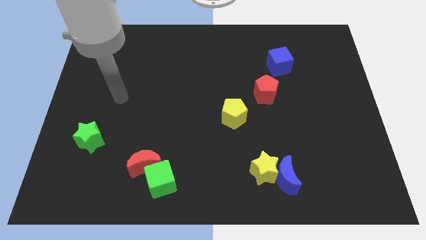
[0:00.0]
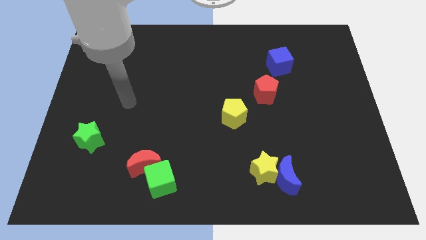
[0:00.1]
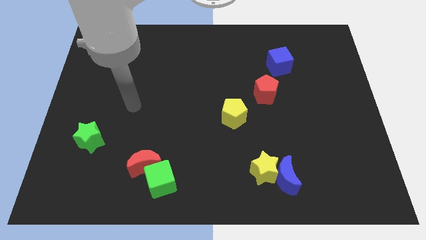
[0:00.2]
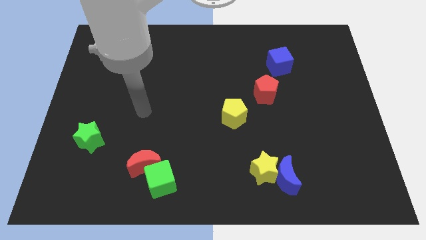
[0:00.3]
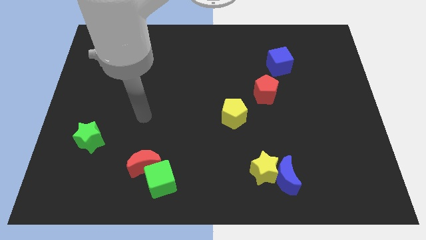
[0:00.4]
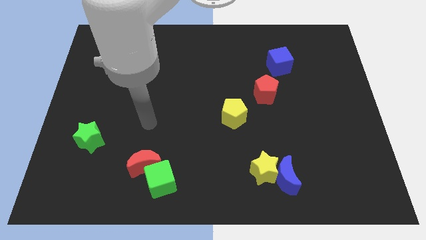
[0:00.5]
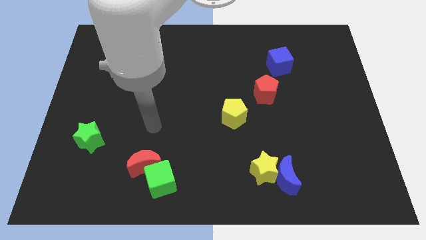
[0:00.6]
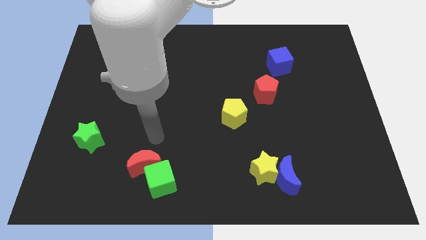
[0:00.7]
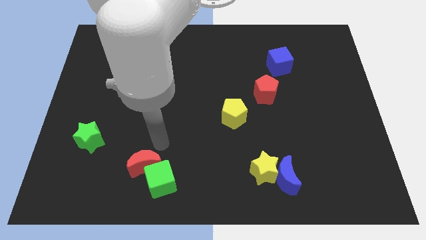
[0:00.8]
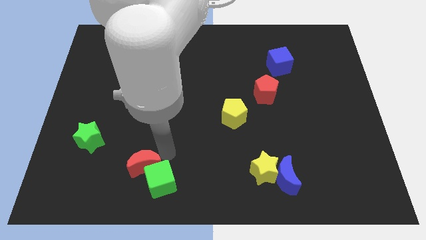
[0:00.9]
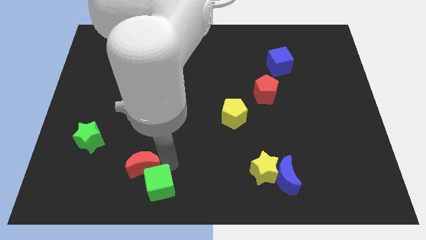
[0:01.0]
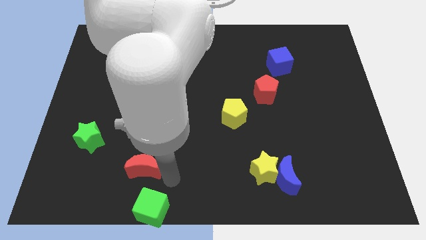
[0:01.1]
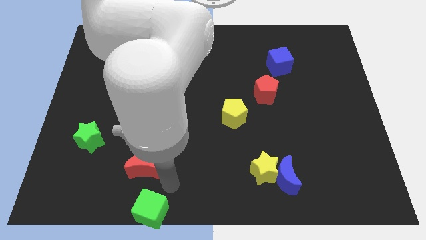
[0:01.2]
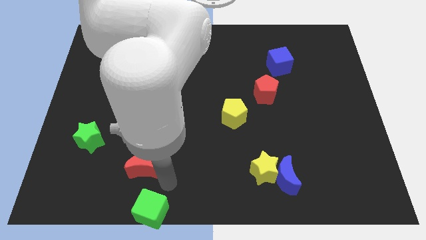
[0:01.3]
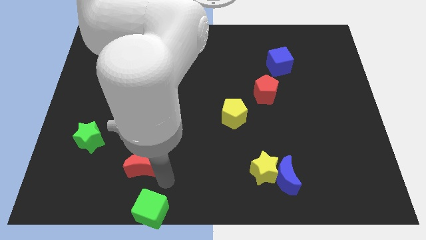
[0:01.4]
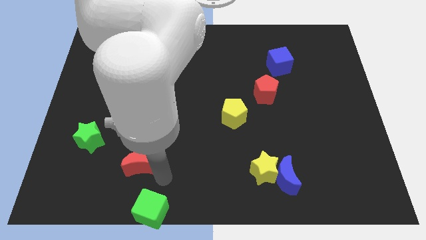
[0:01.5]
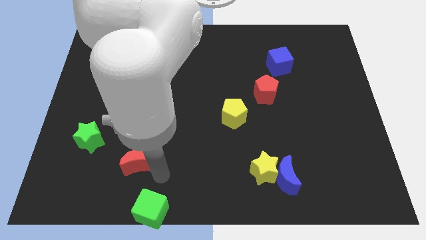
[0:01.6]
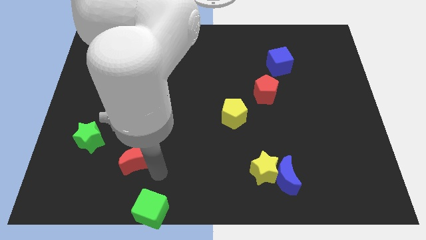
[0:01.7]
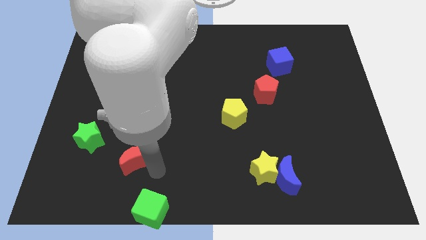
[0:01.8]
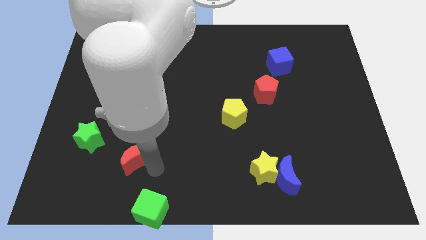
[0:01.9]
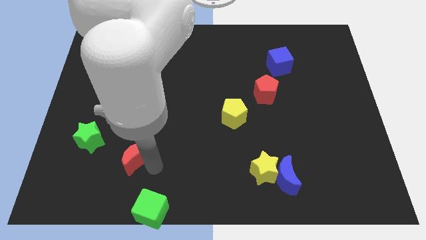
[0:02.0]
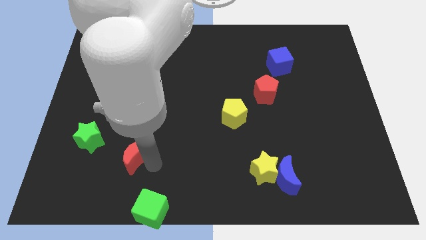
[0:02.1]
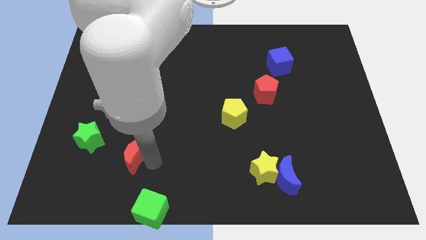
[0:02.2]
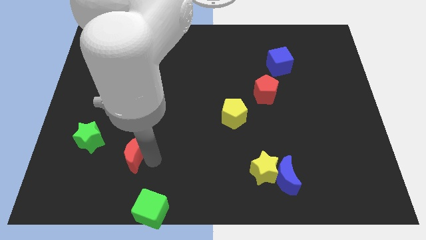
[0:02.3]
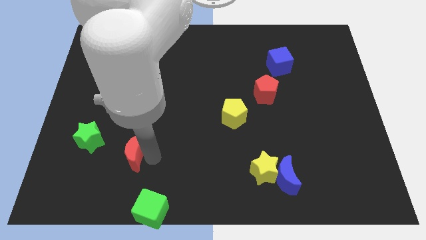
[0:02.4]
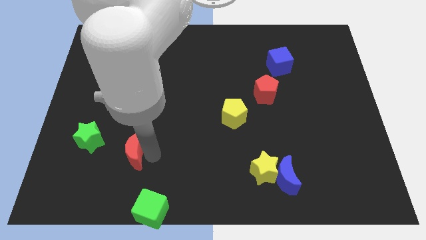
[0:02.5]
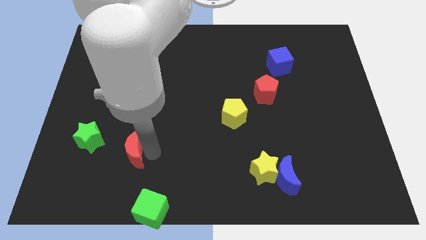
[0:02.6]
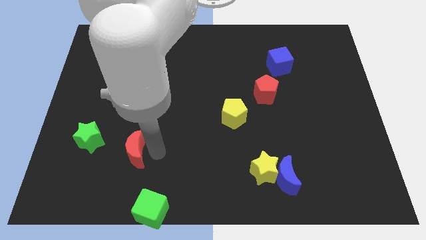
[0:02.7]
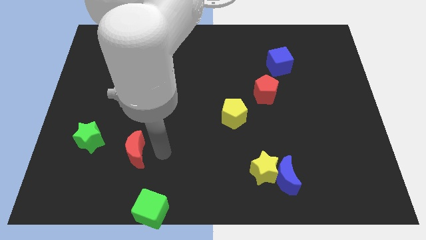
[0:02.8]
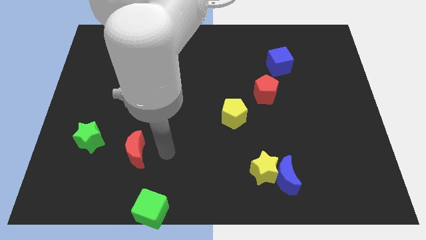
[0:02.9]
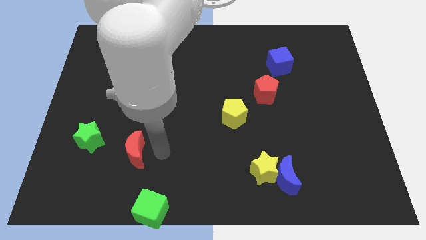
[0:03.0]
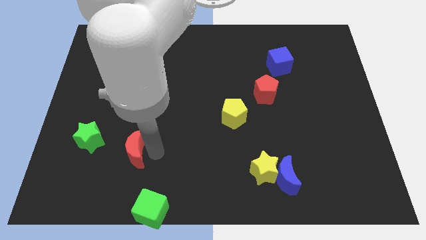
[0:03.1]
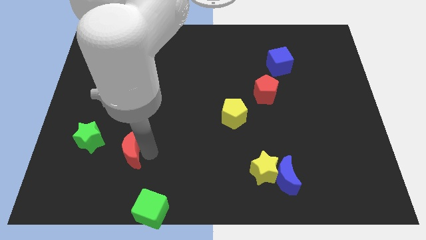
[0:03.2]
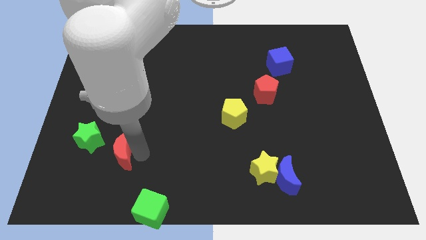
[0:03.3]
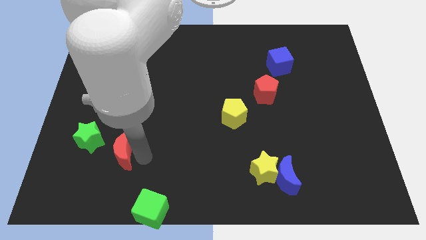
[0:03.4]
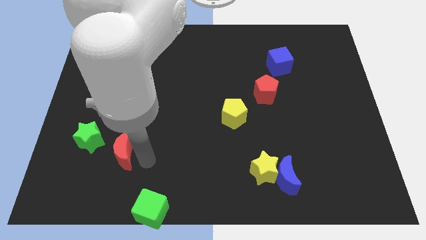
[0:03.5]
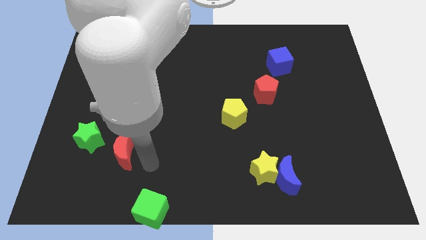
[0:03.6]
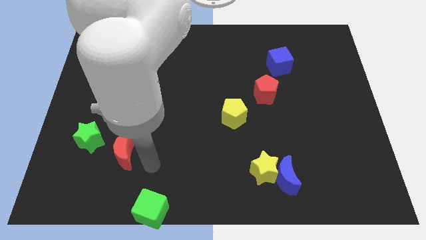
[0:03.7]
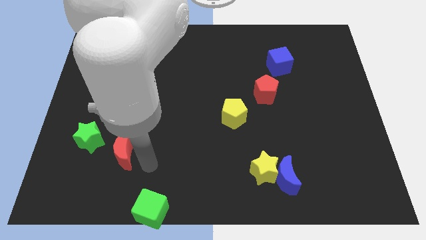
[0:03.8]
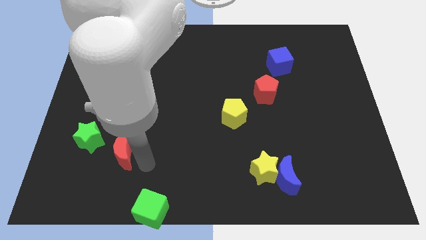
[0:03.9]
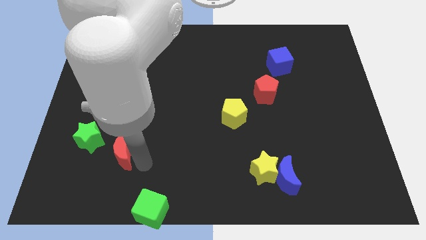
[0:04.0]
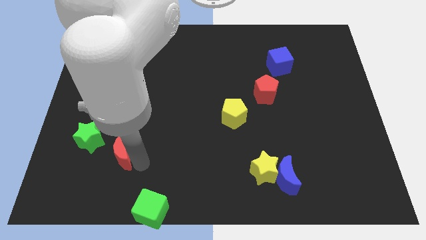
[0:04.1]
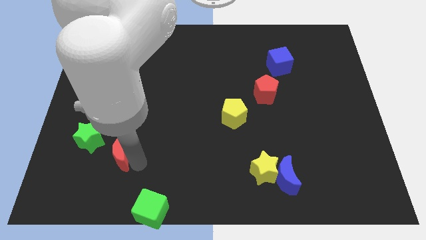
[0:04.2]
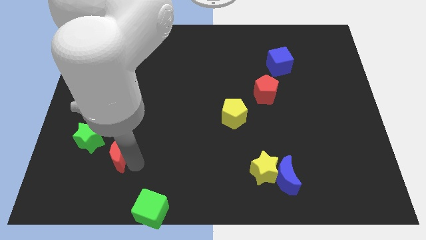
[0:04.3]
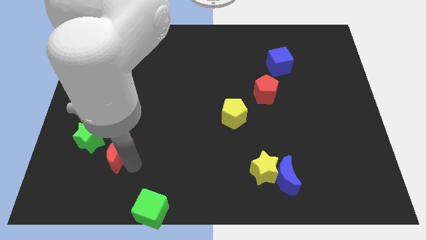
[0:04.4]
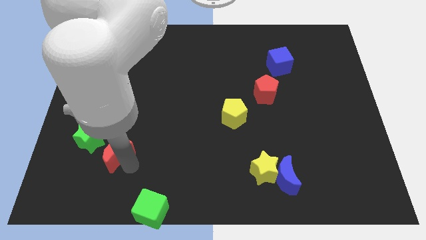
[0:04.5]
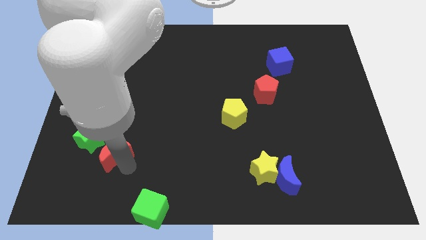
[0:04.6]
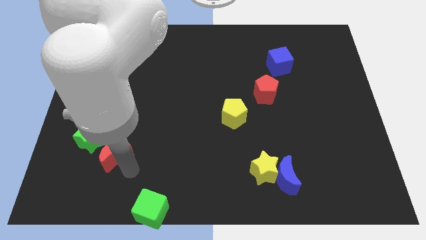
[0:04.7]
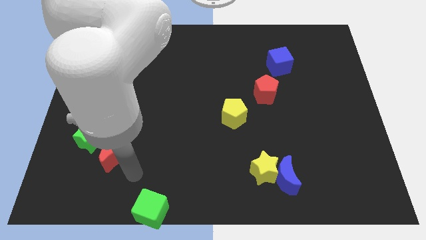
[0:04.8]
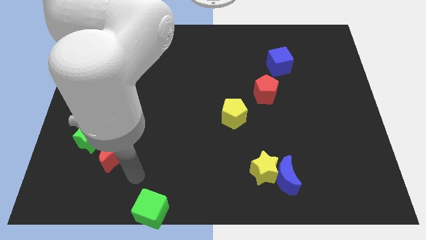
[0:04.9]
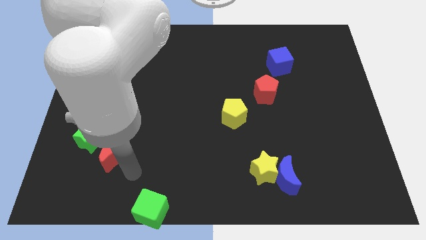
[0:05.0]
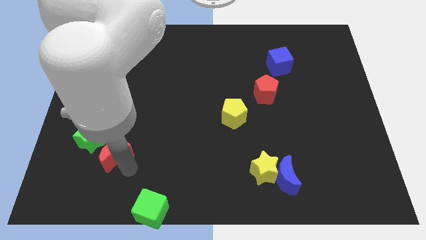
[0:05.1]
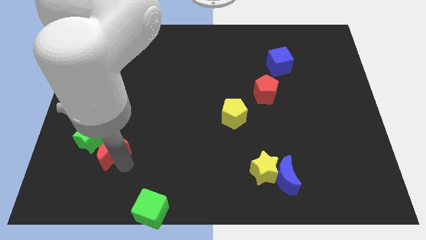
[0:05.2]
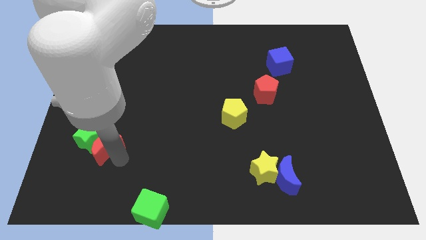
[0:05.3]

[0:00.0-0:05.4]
put the red moon next to the green star

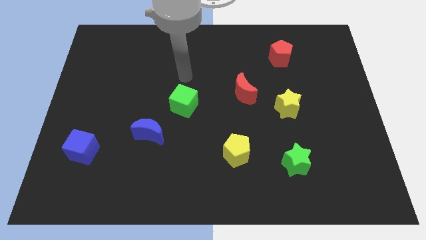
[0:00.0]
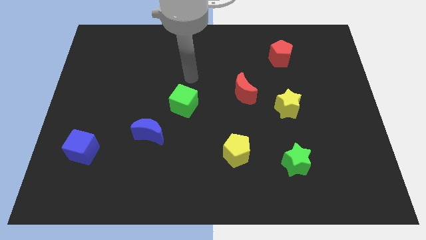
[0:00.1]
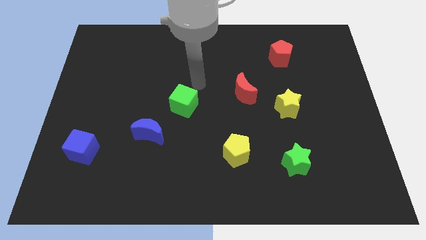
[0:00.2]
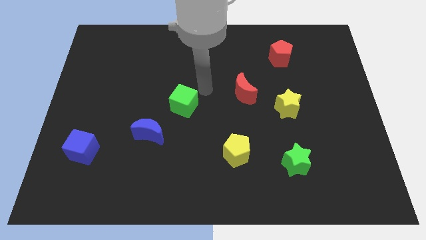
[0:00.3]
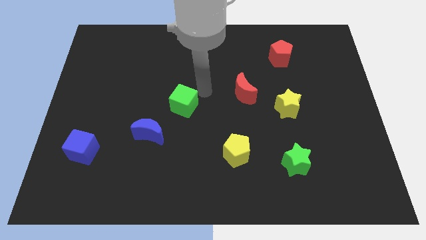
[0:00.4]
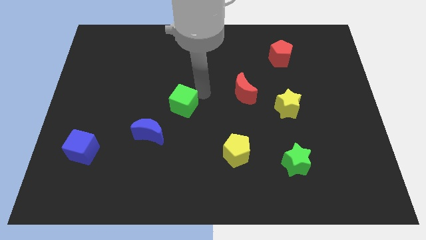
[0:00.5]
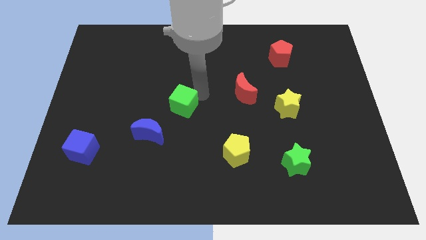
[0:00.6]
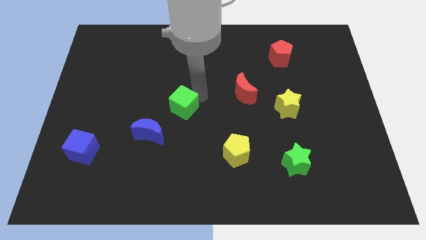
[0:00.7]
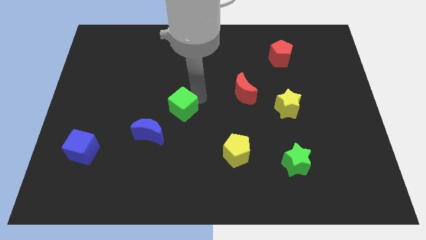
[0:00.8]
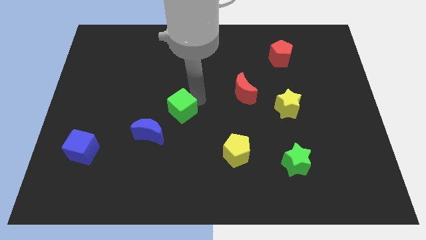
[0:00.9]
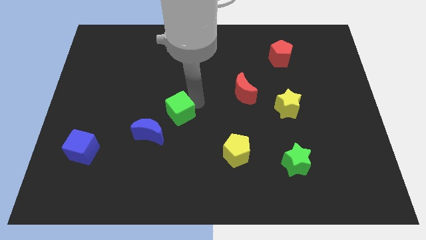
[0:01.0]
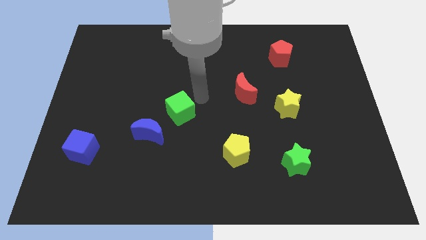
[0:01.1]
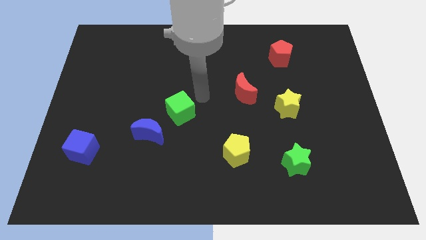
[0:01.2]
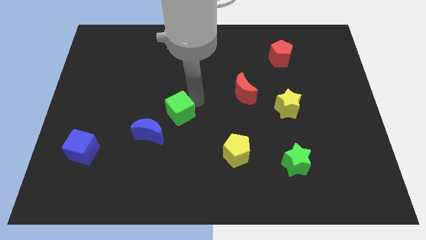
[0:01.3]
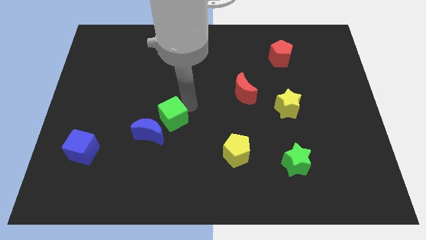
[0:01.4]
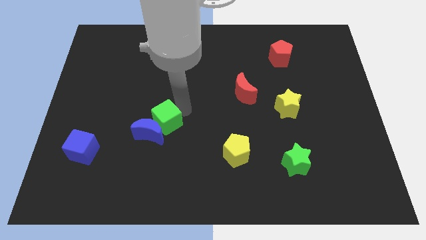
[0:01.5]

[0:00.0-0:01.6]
push the green cube next to the blue moon
